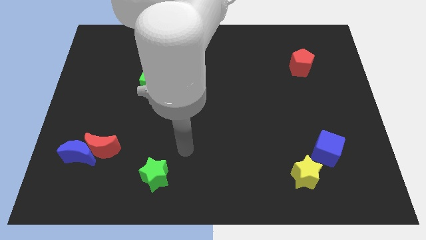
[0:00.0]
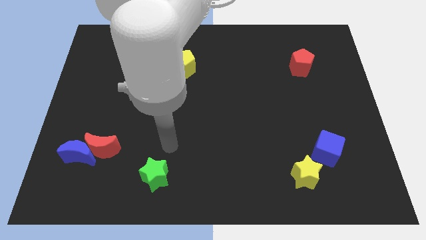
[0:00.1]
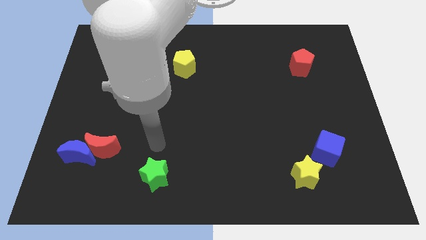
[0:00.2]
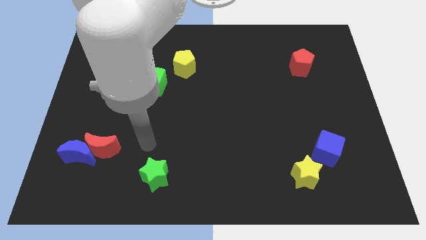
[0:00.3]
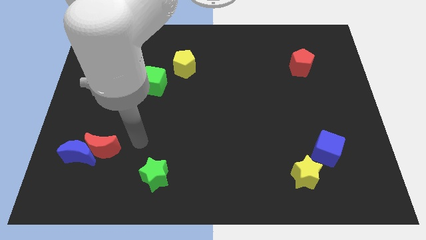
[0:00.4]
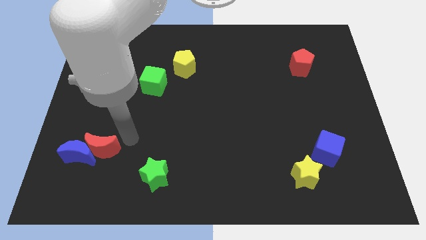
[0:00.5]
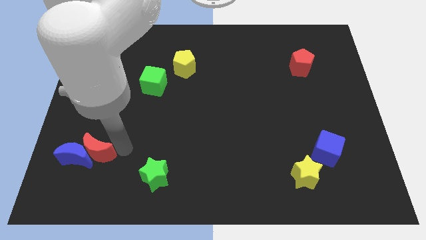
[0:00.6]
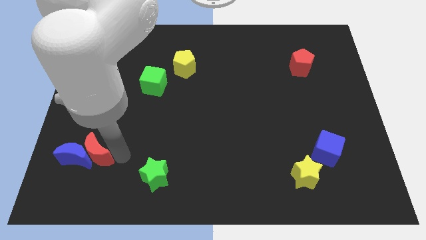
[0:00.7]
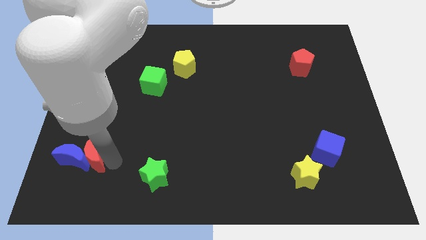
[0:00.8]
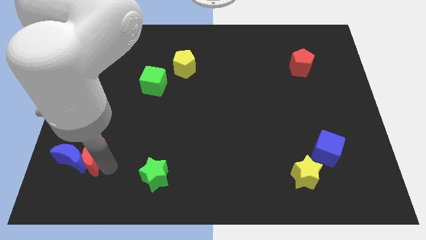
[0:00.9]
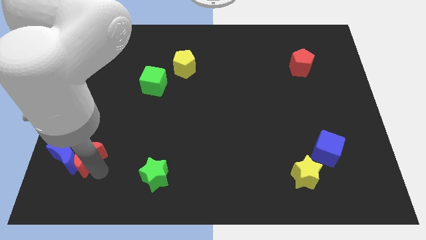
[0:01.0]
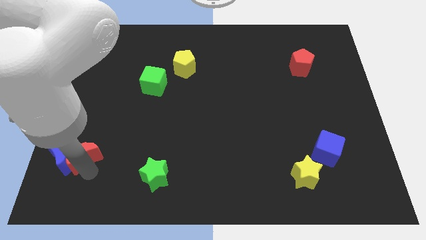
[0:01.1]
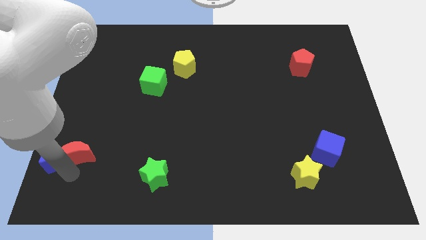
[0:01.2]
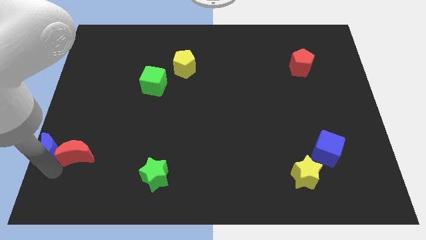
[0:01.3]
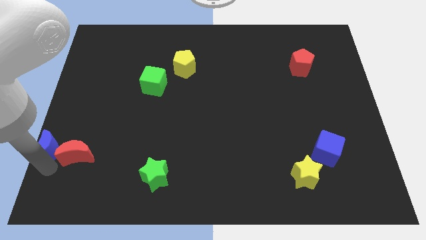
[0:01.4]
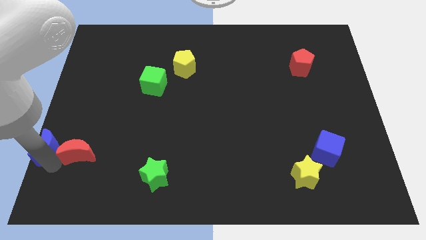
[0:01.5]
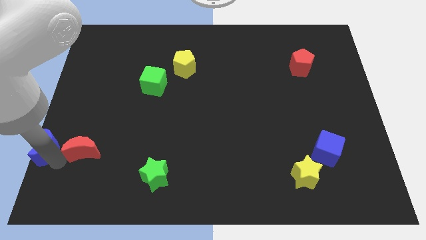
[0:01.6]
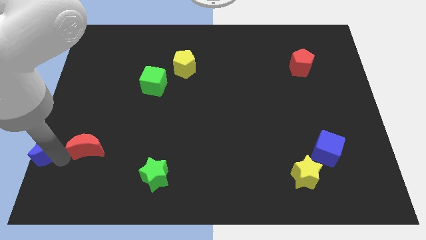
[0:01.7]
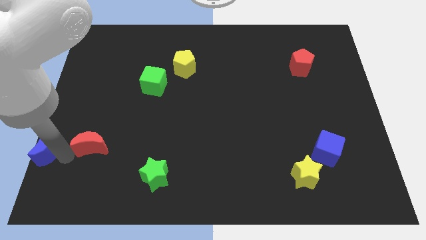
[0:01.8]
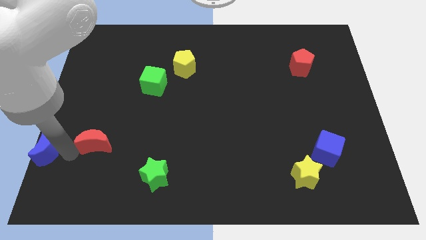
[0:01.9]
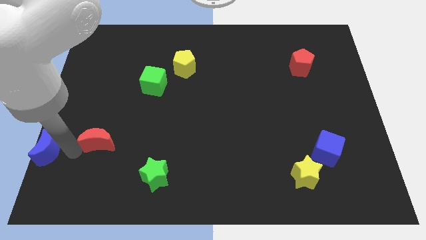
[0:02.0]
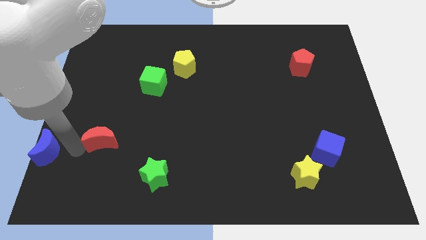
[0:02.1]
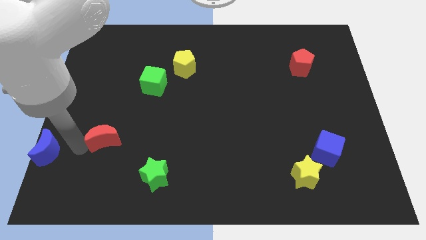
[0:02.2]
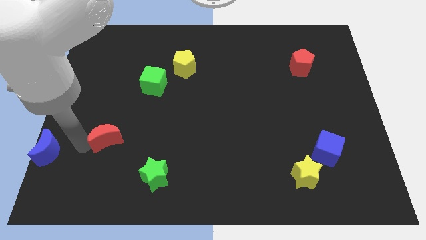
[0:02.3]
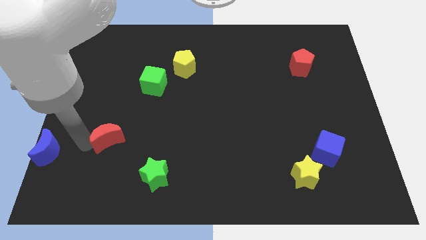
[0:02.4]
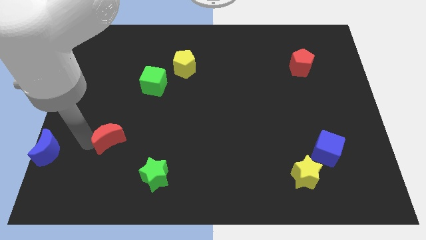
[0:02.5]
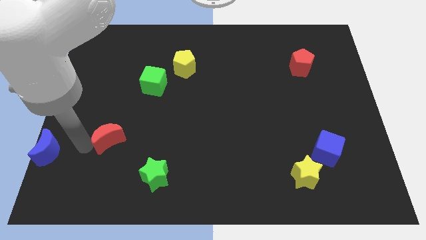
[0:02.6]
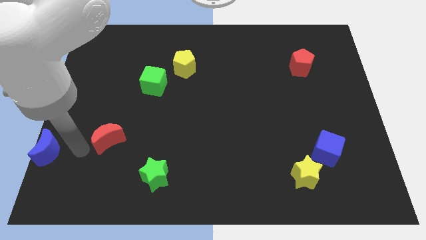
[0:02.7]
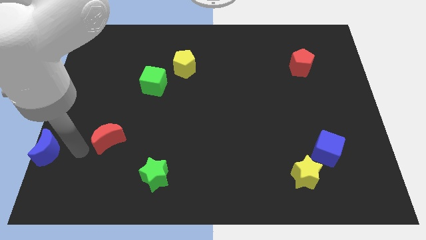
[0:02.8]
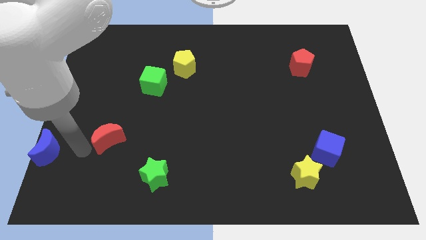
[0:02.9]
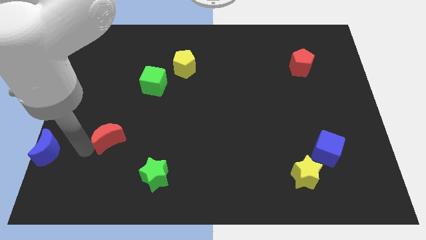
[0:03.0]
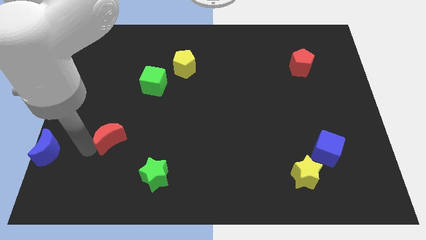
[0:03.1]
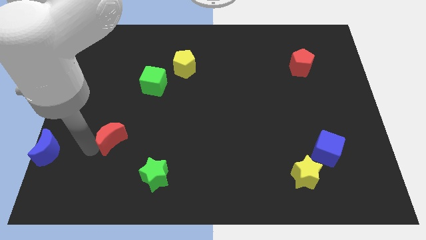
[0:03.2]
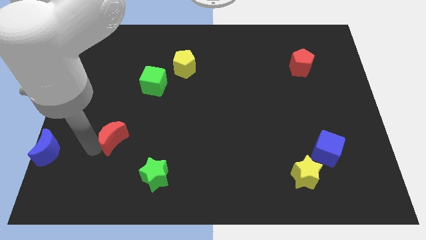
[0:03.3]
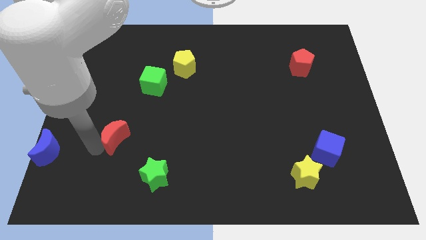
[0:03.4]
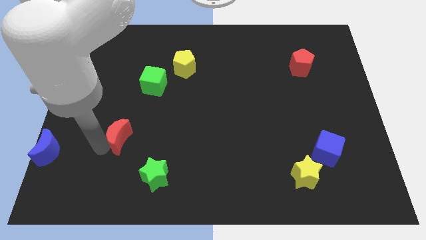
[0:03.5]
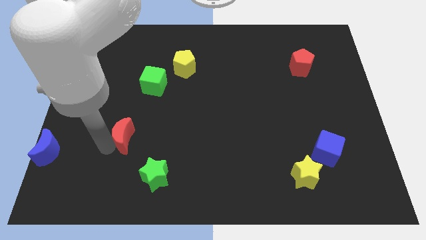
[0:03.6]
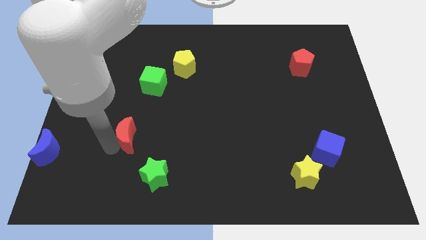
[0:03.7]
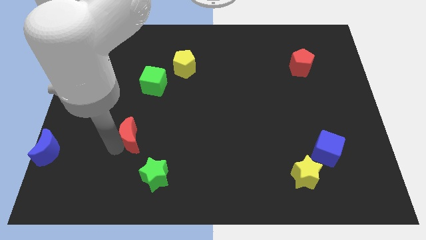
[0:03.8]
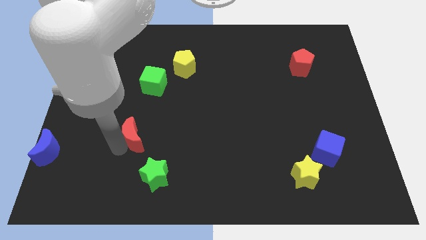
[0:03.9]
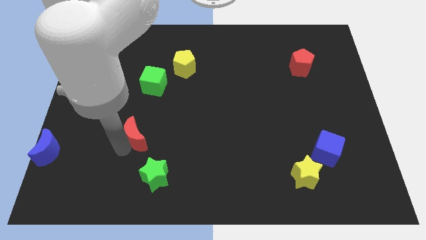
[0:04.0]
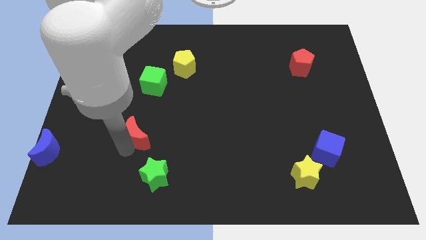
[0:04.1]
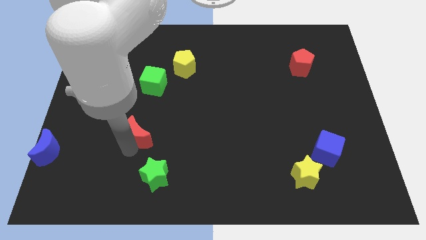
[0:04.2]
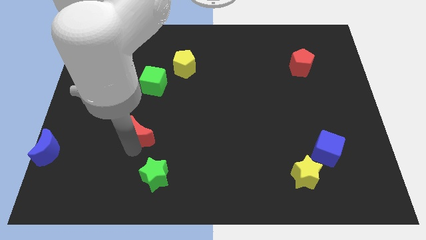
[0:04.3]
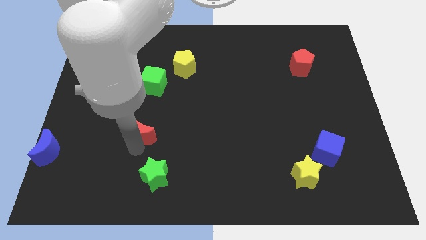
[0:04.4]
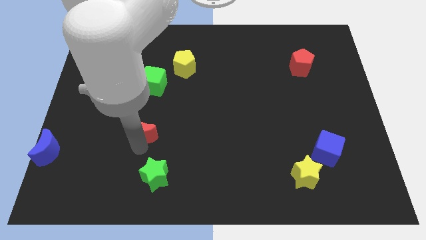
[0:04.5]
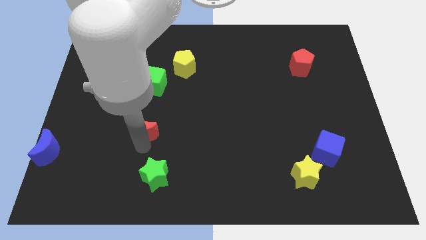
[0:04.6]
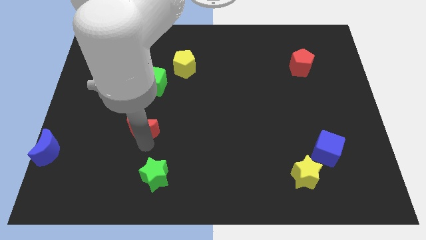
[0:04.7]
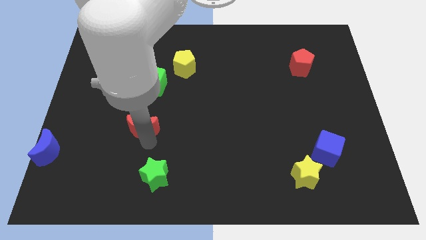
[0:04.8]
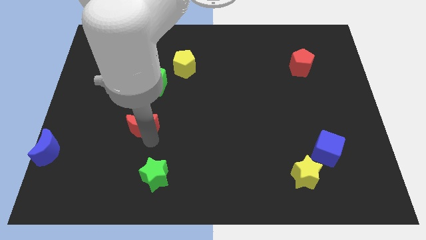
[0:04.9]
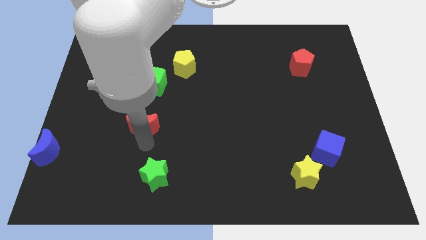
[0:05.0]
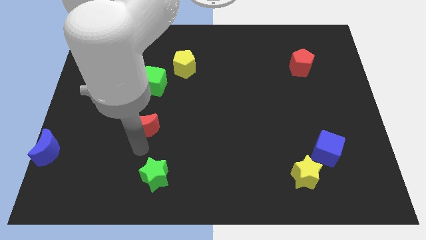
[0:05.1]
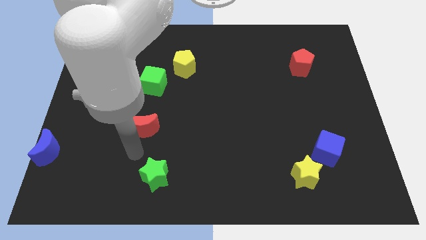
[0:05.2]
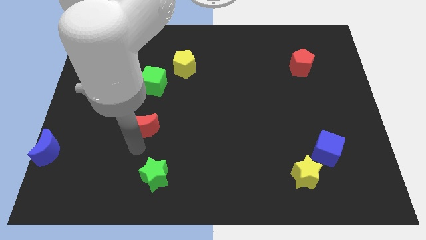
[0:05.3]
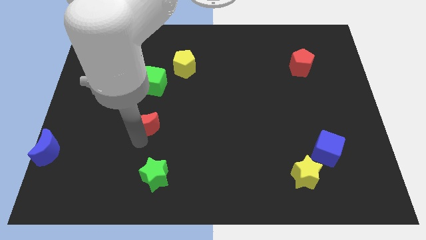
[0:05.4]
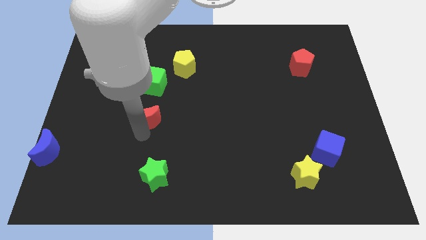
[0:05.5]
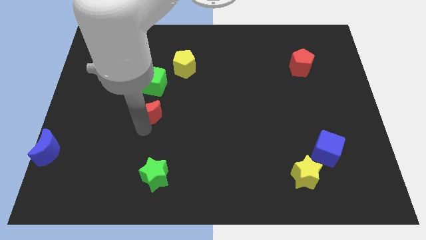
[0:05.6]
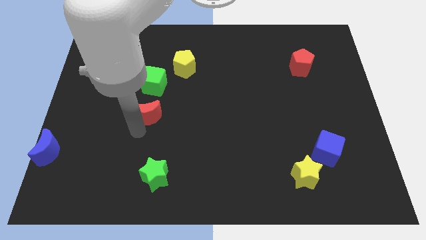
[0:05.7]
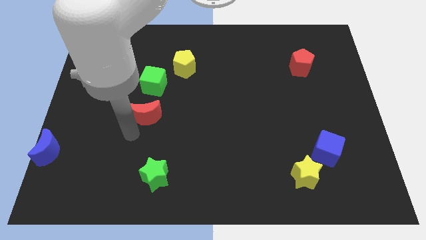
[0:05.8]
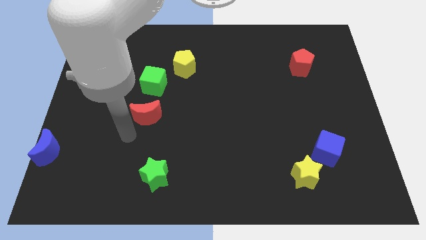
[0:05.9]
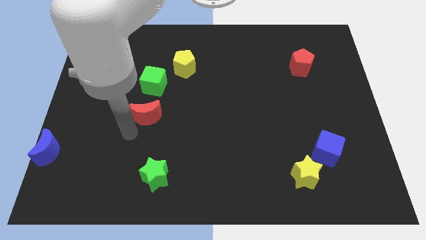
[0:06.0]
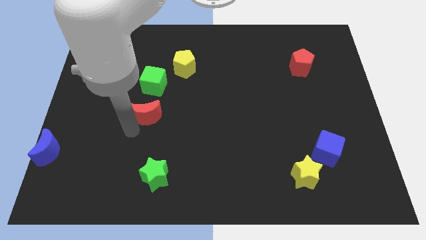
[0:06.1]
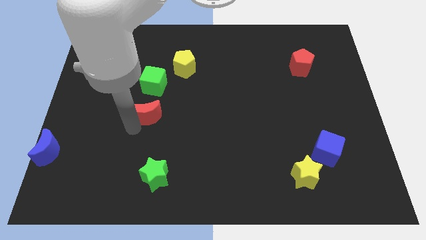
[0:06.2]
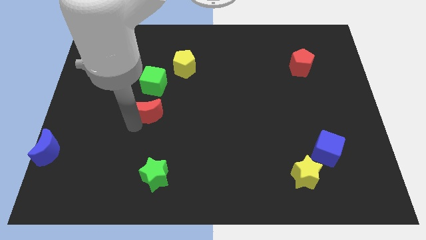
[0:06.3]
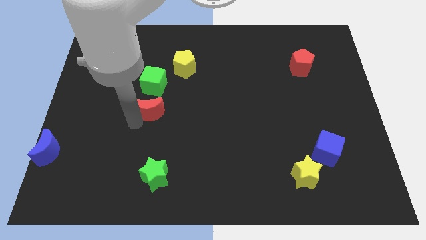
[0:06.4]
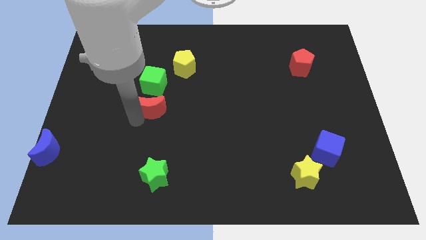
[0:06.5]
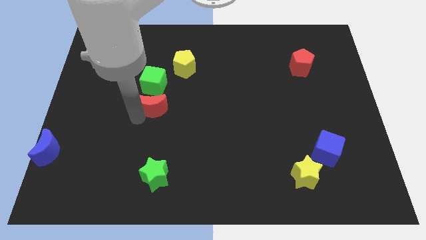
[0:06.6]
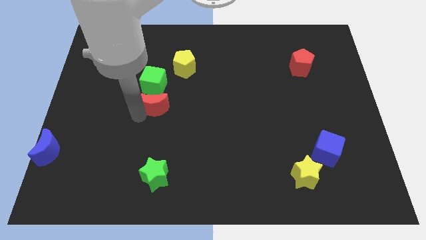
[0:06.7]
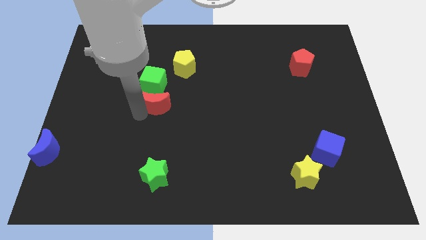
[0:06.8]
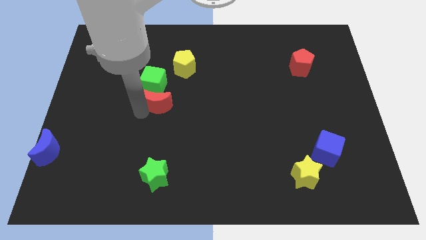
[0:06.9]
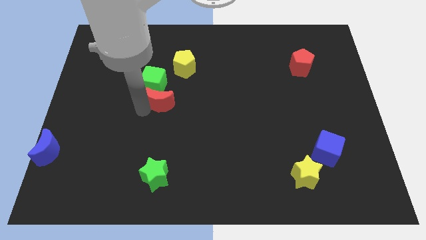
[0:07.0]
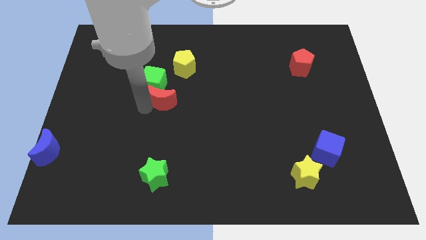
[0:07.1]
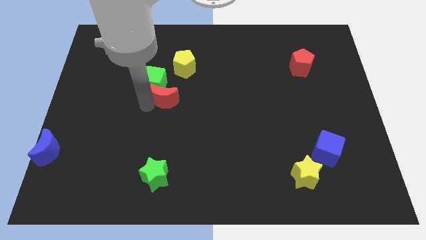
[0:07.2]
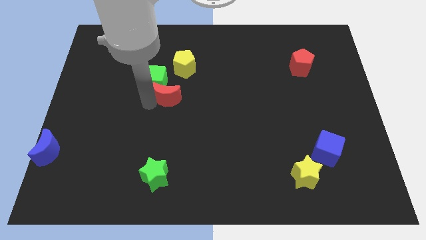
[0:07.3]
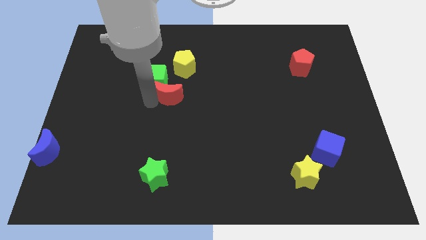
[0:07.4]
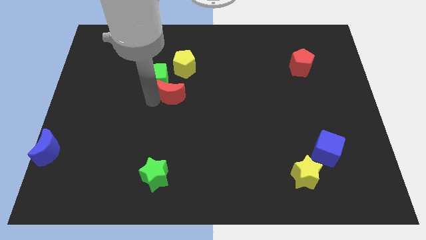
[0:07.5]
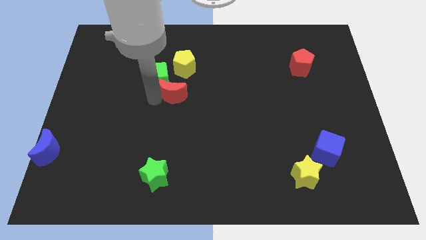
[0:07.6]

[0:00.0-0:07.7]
push the red moon to the right side of the green cube
